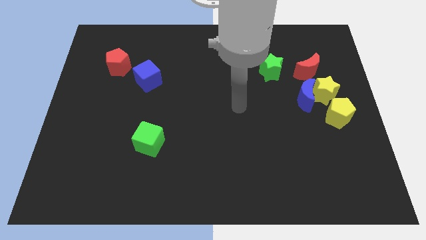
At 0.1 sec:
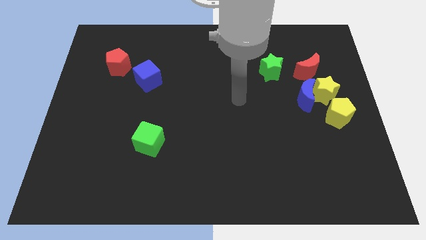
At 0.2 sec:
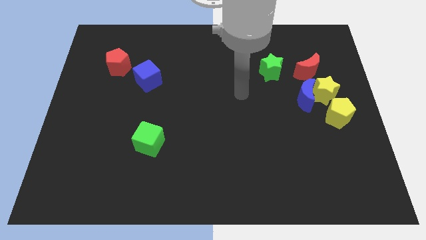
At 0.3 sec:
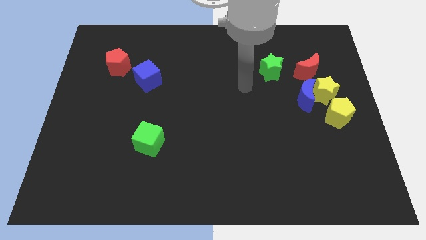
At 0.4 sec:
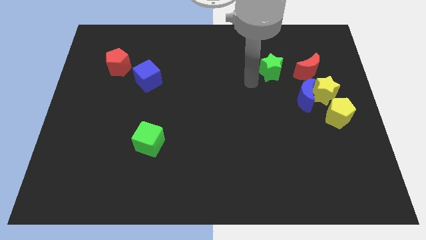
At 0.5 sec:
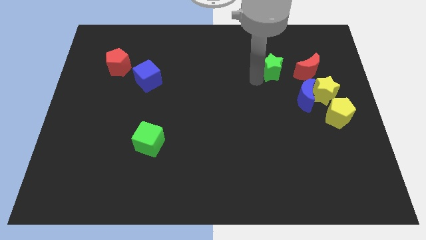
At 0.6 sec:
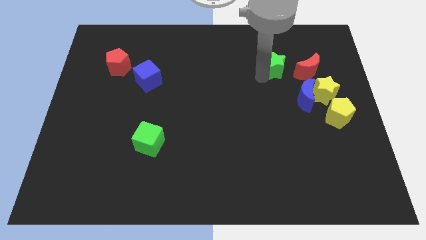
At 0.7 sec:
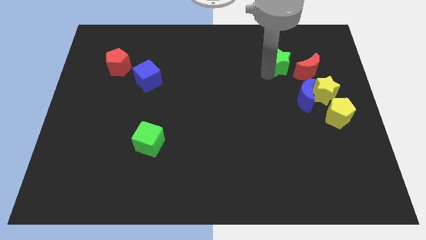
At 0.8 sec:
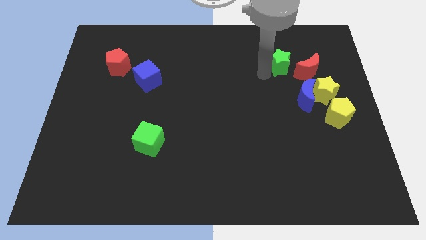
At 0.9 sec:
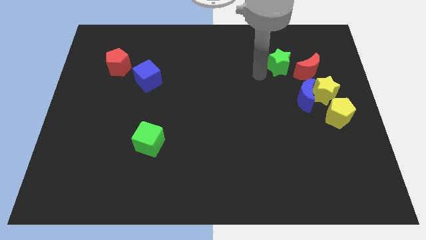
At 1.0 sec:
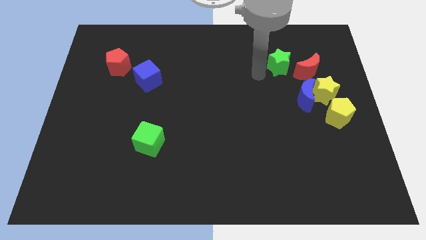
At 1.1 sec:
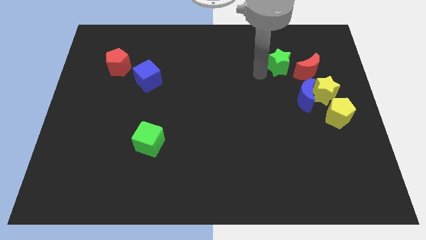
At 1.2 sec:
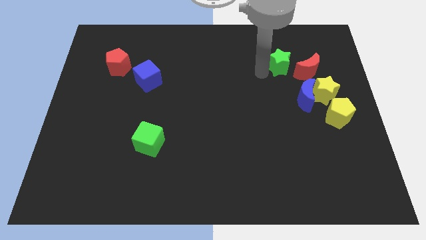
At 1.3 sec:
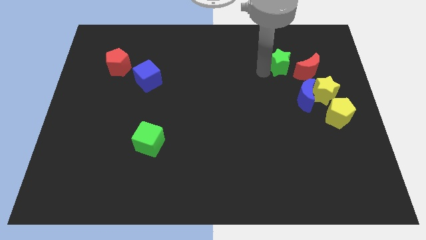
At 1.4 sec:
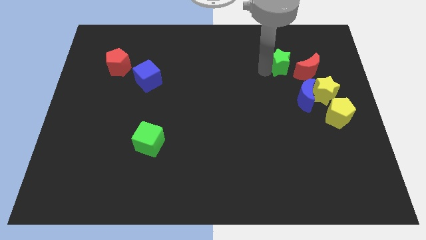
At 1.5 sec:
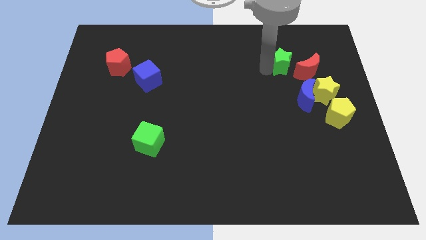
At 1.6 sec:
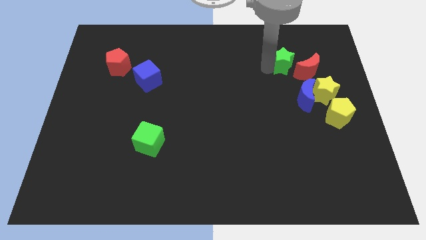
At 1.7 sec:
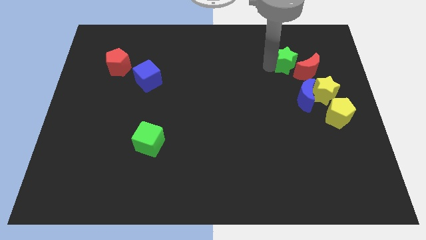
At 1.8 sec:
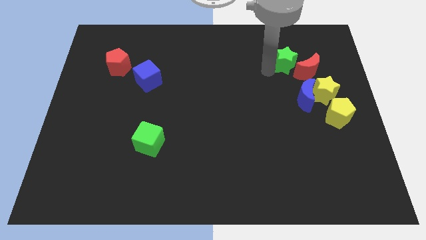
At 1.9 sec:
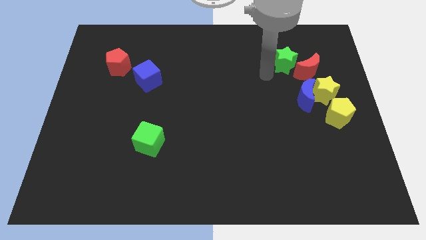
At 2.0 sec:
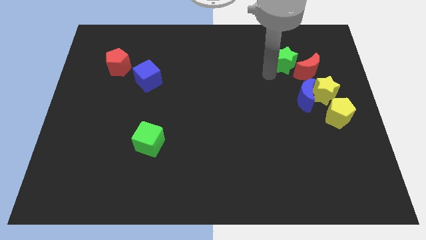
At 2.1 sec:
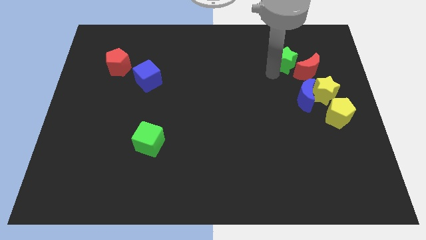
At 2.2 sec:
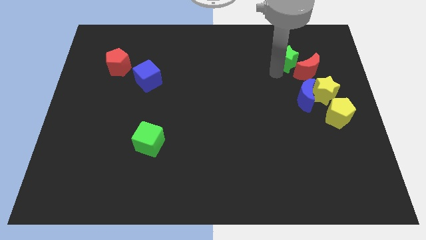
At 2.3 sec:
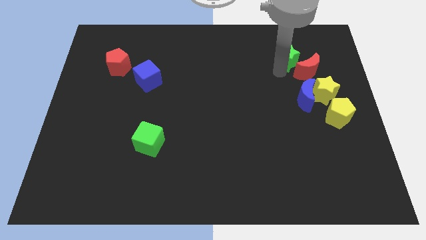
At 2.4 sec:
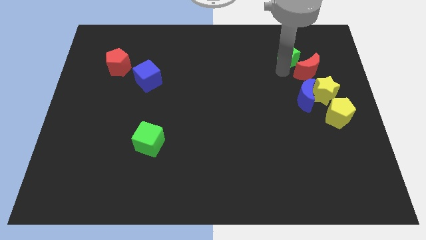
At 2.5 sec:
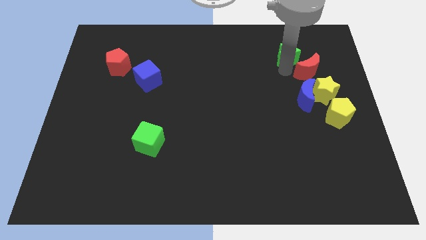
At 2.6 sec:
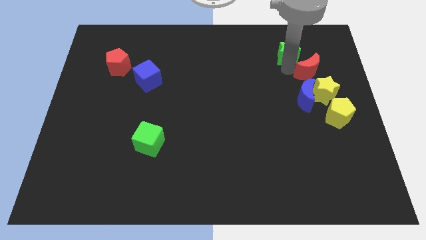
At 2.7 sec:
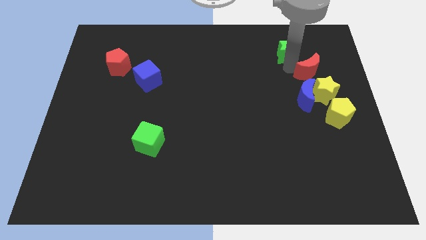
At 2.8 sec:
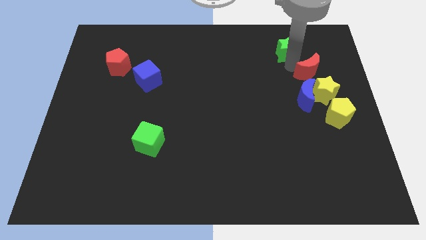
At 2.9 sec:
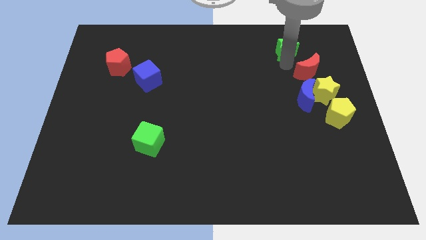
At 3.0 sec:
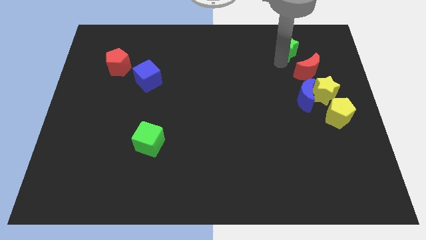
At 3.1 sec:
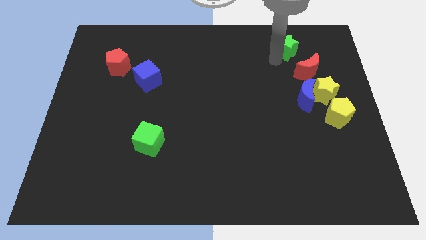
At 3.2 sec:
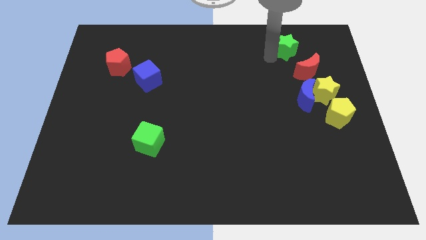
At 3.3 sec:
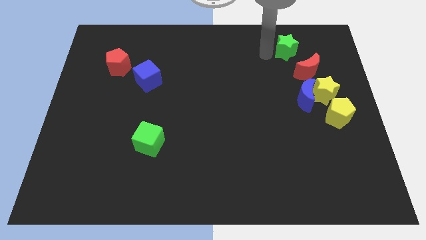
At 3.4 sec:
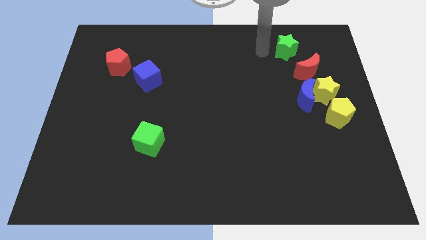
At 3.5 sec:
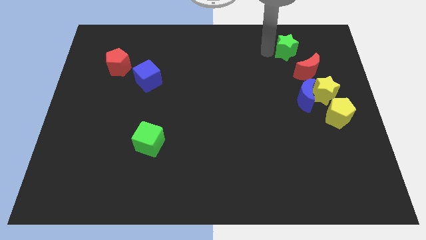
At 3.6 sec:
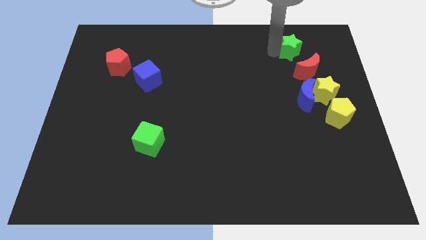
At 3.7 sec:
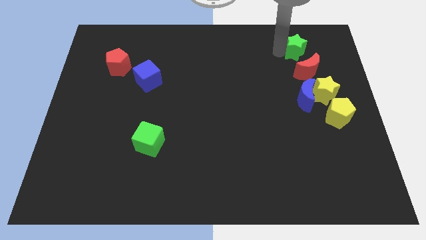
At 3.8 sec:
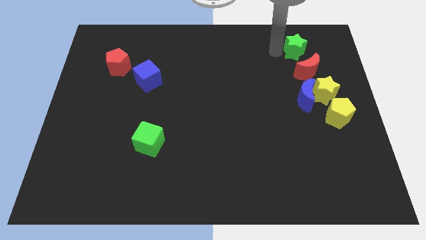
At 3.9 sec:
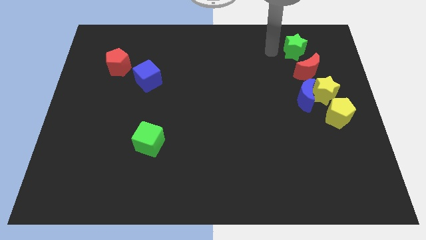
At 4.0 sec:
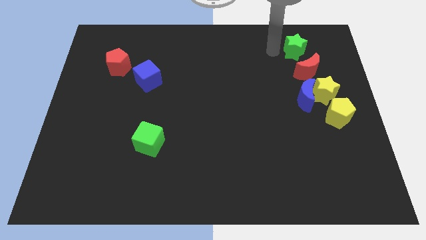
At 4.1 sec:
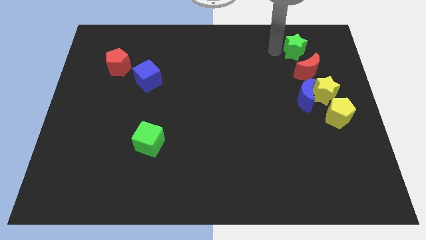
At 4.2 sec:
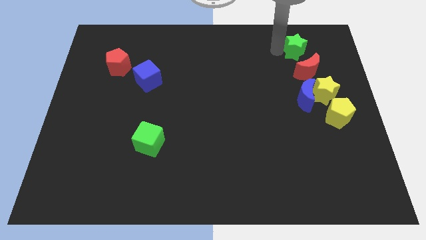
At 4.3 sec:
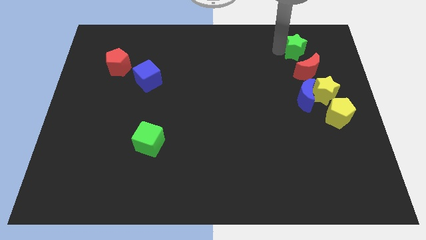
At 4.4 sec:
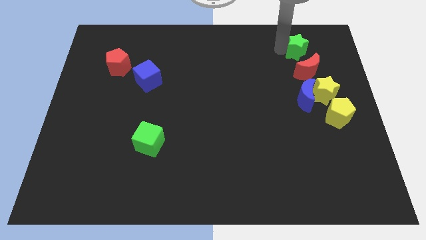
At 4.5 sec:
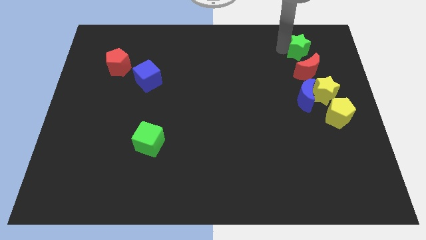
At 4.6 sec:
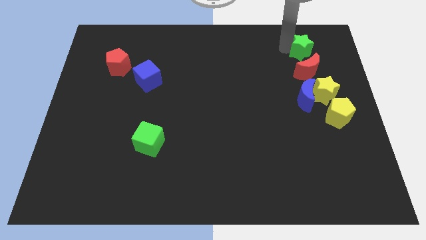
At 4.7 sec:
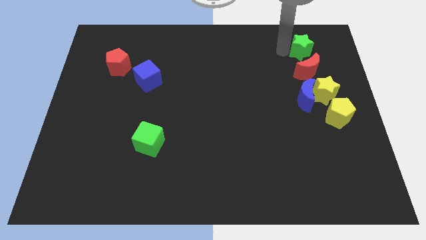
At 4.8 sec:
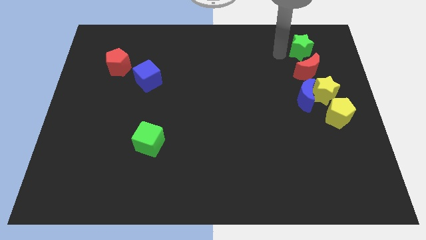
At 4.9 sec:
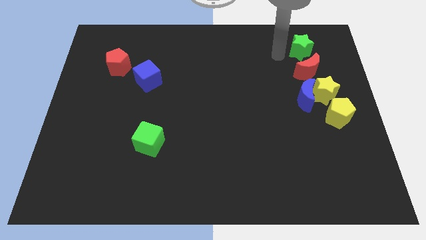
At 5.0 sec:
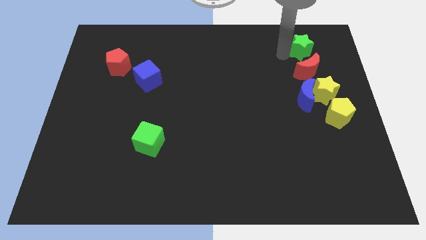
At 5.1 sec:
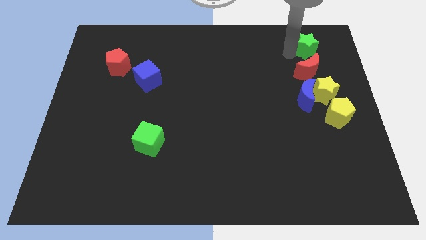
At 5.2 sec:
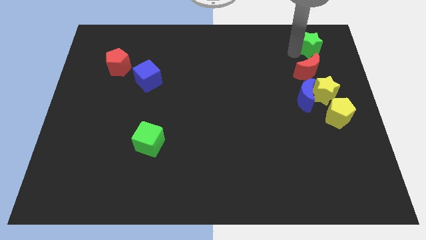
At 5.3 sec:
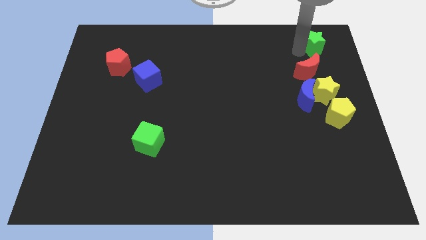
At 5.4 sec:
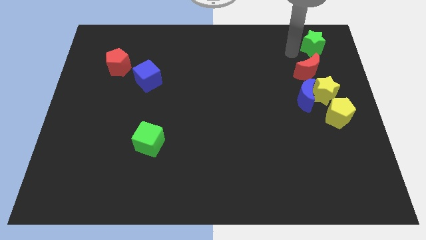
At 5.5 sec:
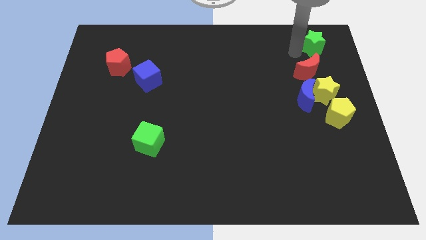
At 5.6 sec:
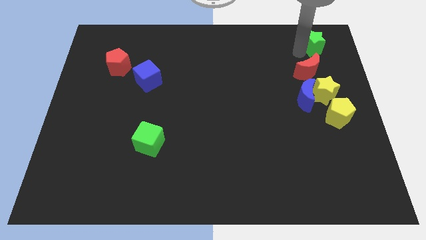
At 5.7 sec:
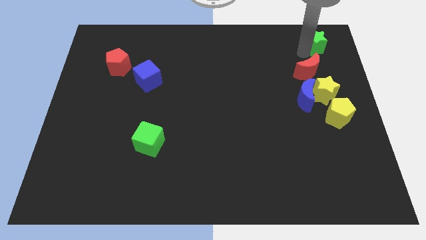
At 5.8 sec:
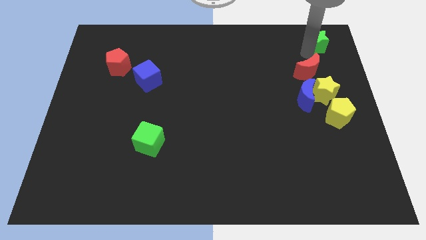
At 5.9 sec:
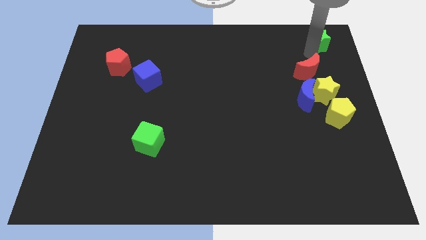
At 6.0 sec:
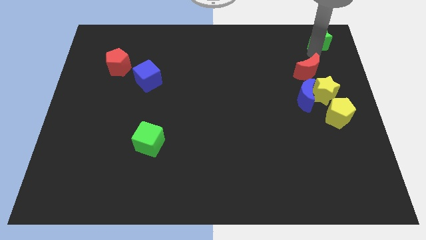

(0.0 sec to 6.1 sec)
move the green star to the top right corner
